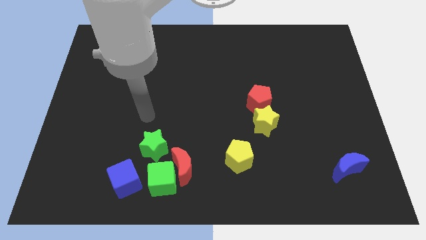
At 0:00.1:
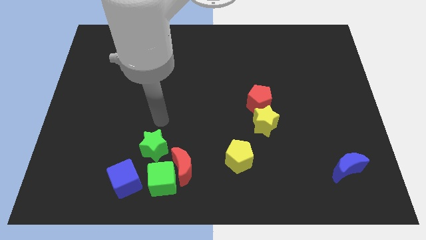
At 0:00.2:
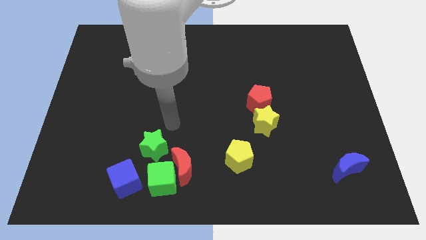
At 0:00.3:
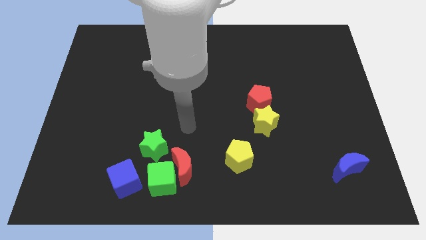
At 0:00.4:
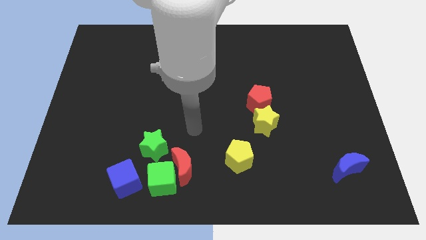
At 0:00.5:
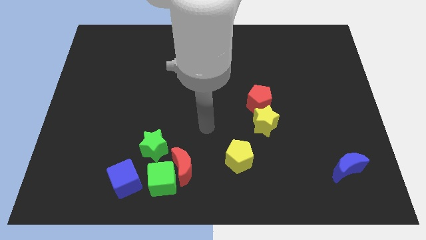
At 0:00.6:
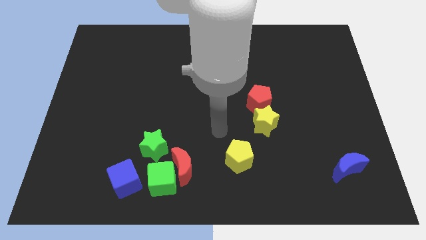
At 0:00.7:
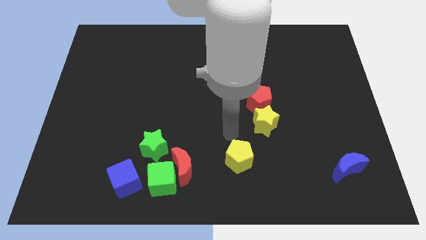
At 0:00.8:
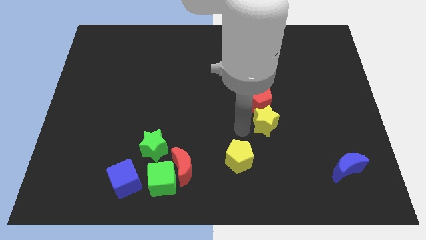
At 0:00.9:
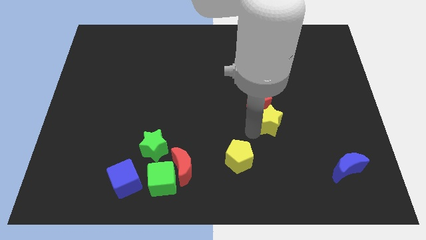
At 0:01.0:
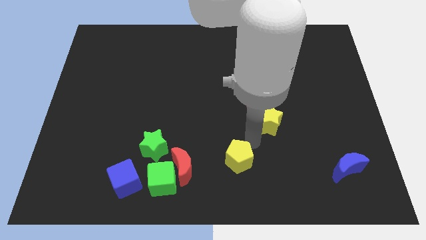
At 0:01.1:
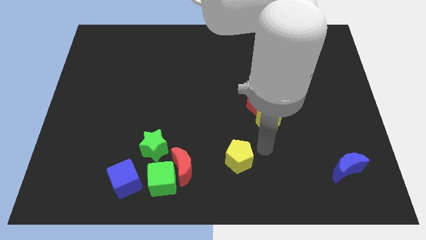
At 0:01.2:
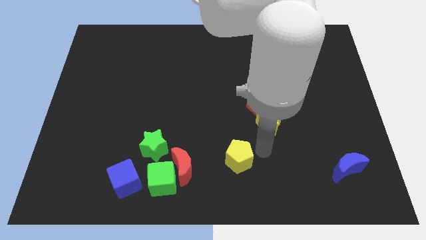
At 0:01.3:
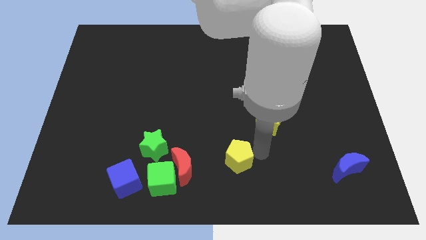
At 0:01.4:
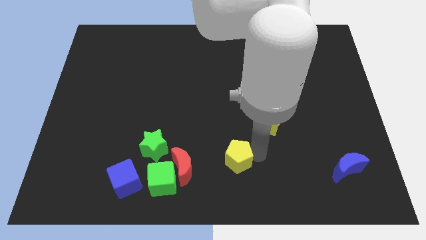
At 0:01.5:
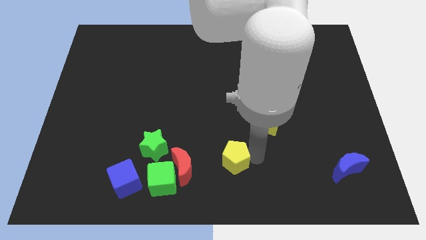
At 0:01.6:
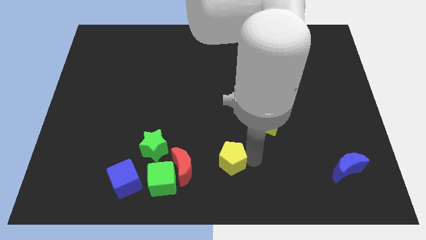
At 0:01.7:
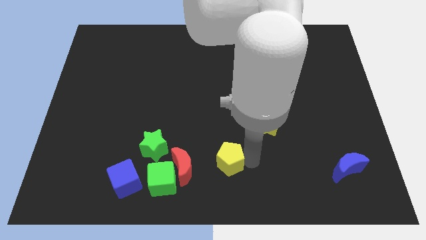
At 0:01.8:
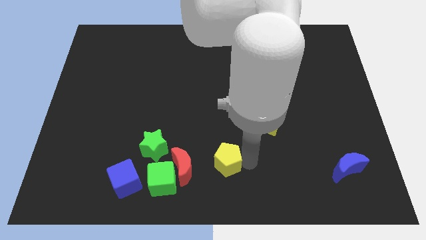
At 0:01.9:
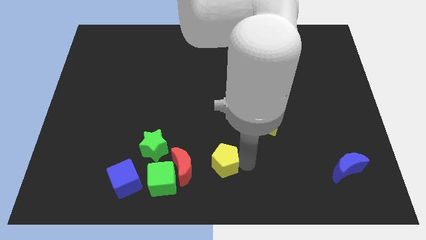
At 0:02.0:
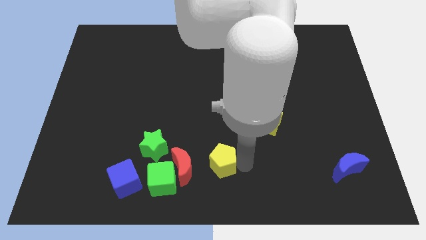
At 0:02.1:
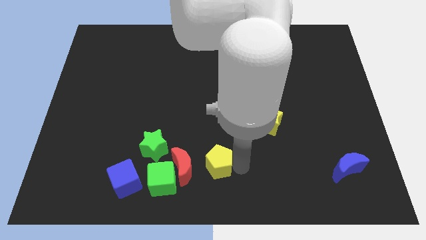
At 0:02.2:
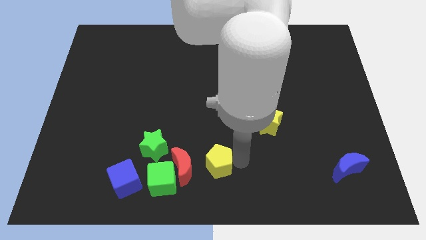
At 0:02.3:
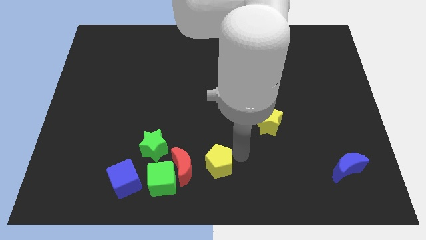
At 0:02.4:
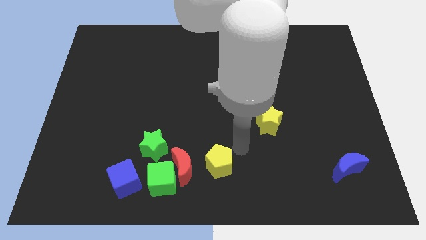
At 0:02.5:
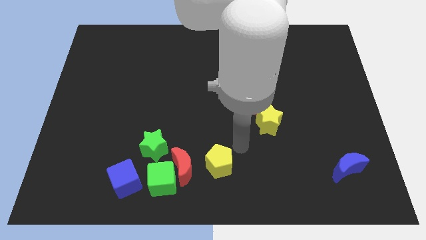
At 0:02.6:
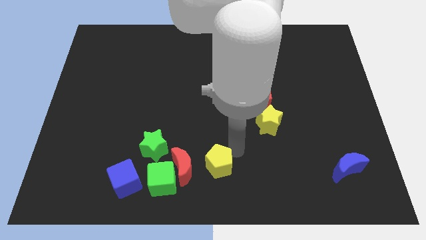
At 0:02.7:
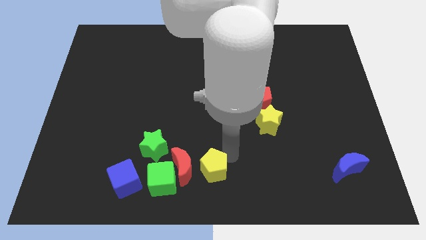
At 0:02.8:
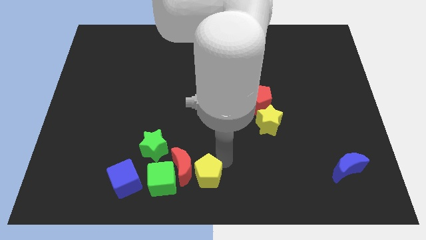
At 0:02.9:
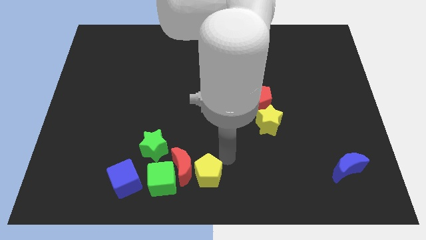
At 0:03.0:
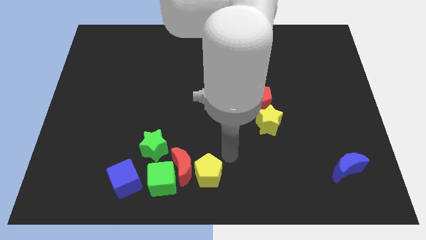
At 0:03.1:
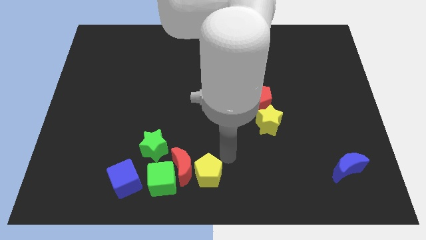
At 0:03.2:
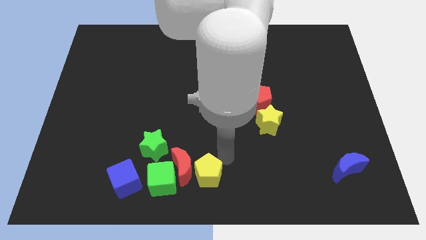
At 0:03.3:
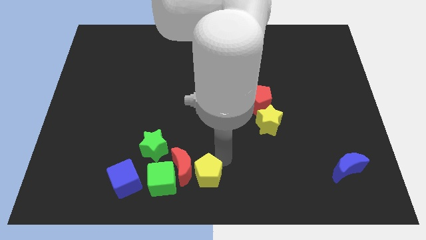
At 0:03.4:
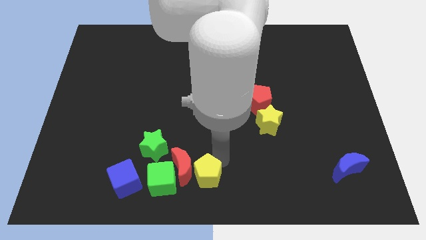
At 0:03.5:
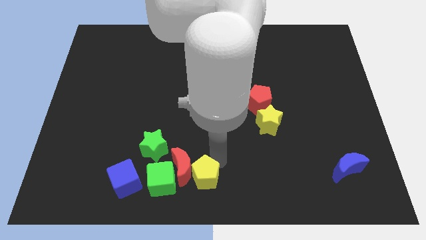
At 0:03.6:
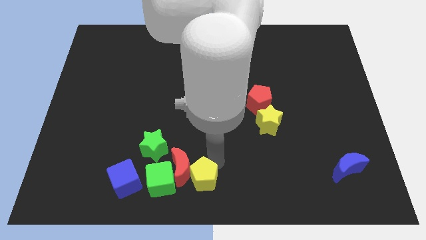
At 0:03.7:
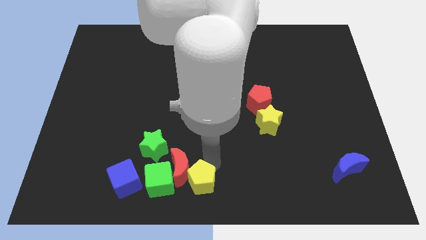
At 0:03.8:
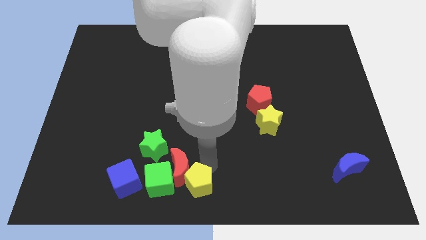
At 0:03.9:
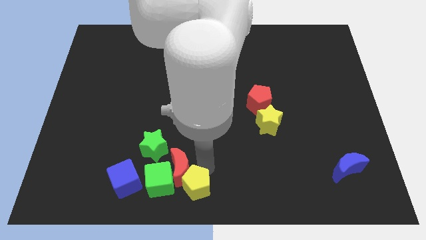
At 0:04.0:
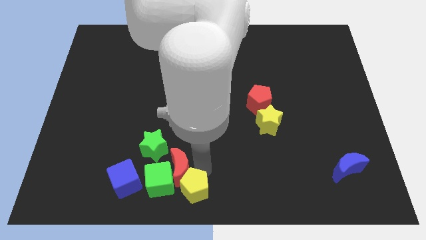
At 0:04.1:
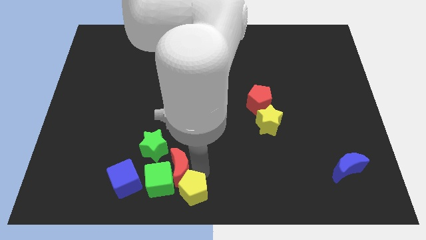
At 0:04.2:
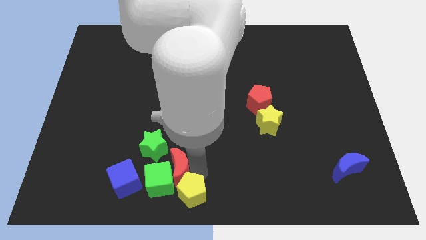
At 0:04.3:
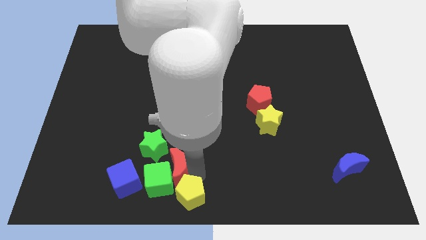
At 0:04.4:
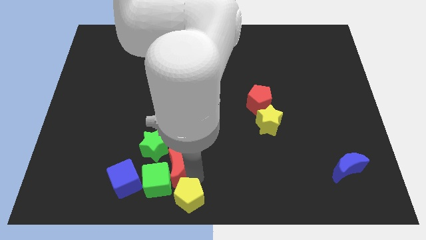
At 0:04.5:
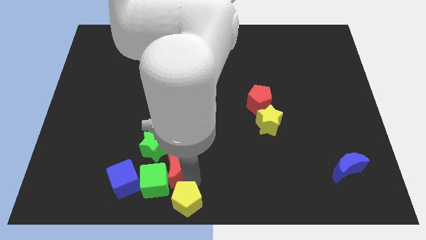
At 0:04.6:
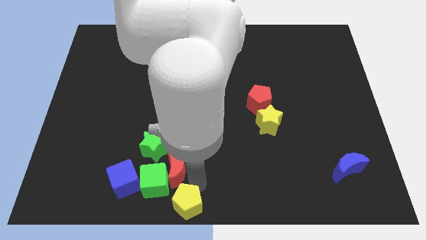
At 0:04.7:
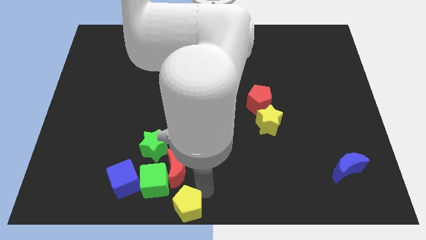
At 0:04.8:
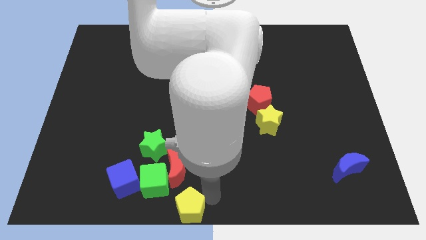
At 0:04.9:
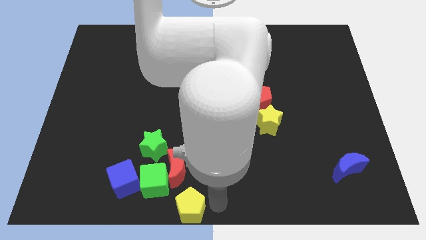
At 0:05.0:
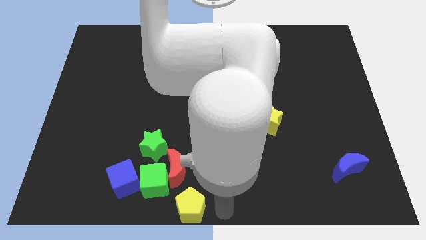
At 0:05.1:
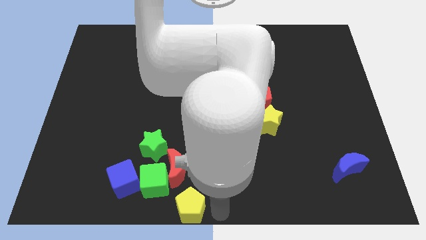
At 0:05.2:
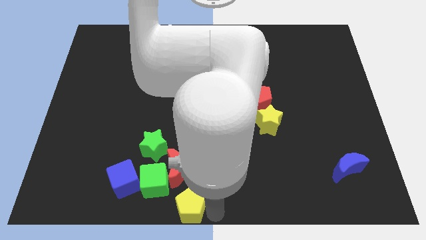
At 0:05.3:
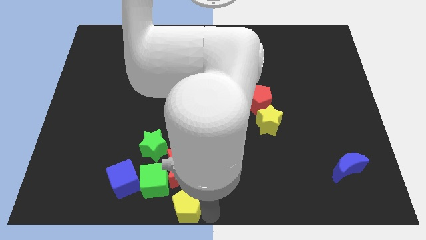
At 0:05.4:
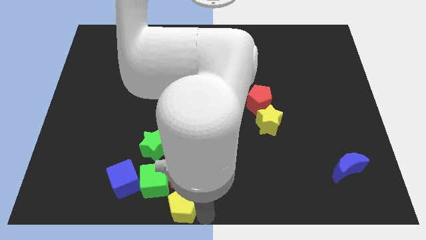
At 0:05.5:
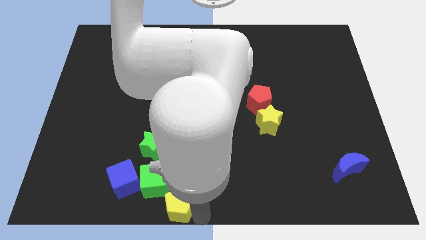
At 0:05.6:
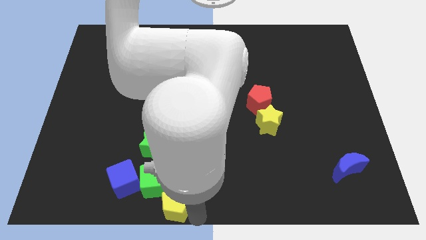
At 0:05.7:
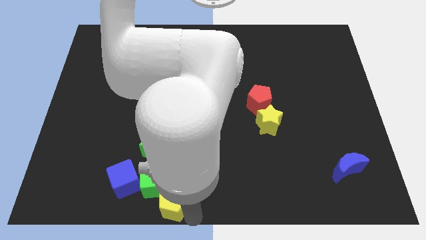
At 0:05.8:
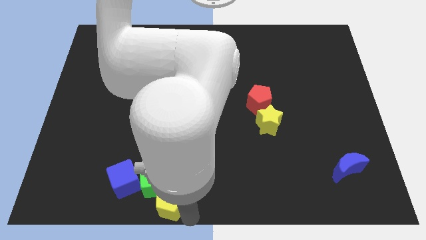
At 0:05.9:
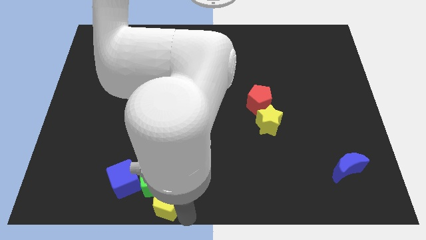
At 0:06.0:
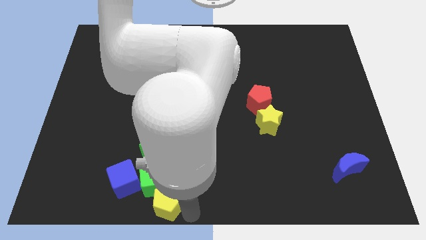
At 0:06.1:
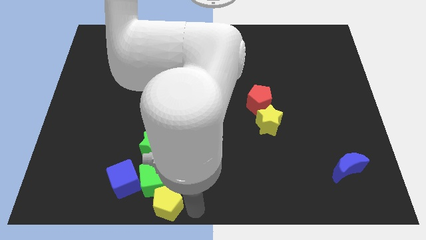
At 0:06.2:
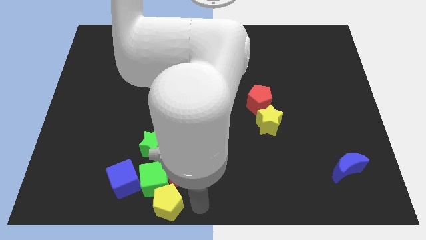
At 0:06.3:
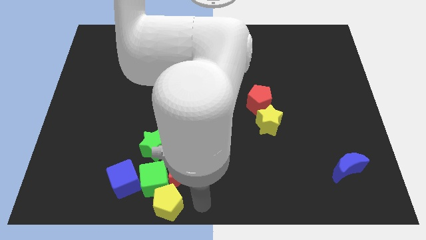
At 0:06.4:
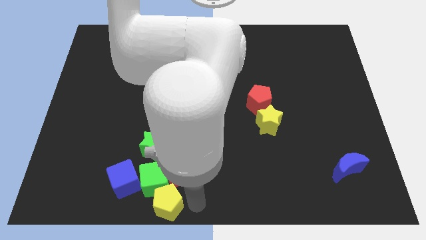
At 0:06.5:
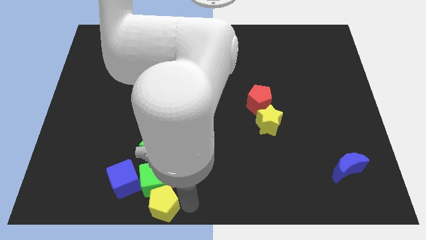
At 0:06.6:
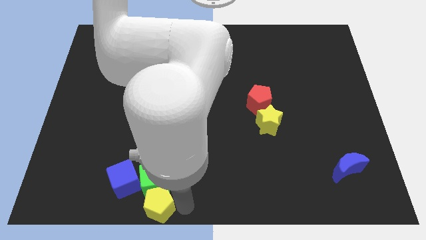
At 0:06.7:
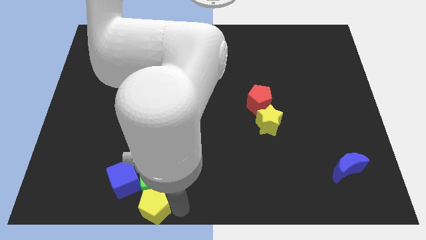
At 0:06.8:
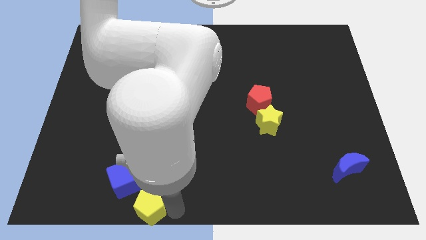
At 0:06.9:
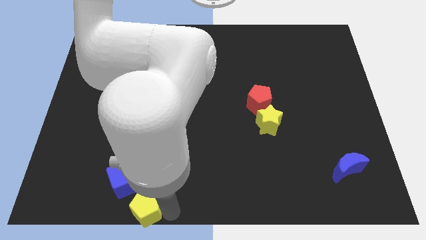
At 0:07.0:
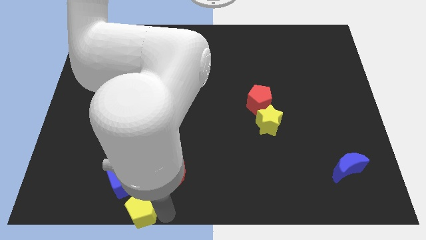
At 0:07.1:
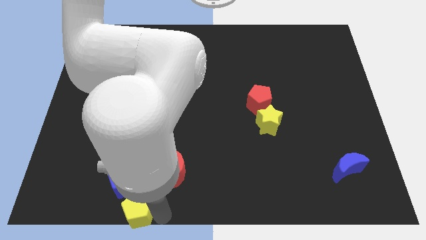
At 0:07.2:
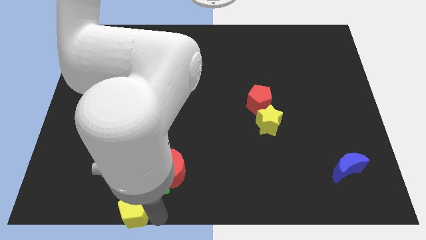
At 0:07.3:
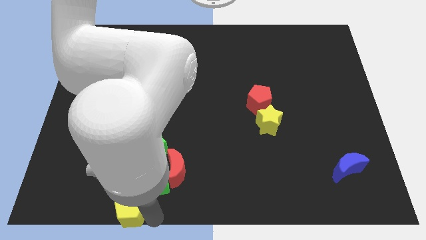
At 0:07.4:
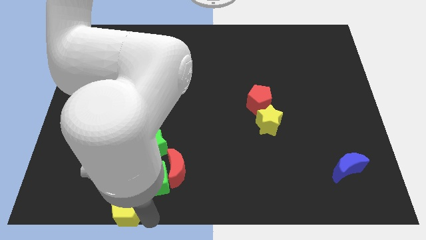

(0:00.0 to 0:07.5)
slide the yellow pentagon close to the blue cube
